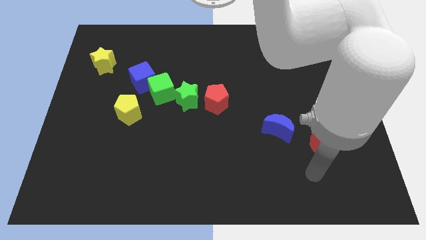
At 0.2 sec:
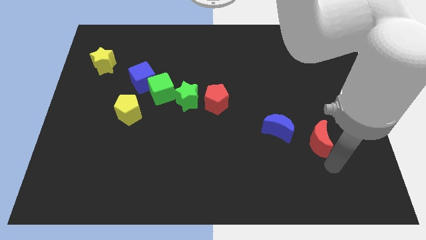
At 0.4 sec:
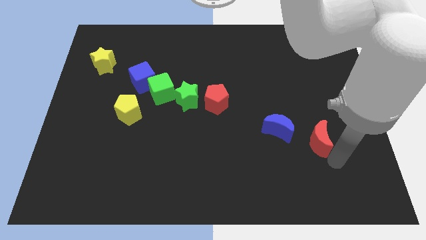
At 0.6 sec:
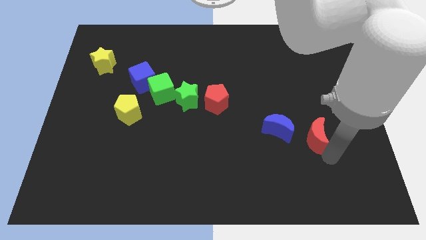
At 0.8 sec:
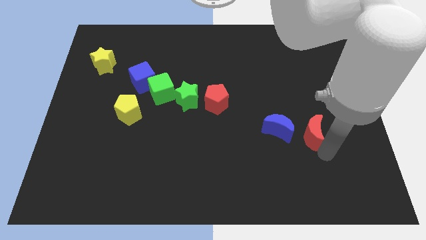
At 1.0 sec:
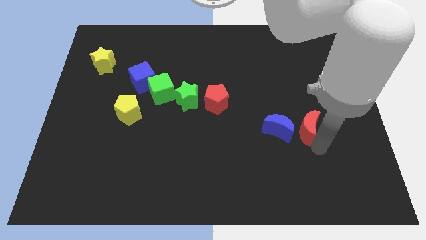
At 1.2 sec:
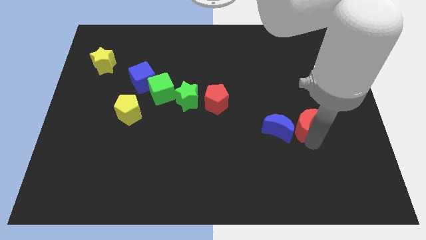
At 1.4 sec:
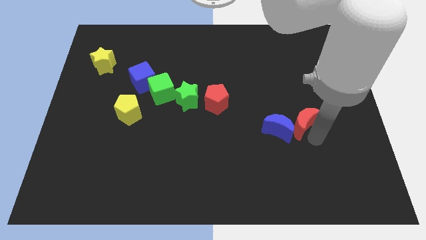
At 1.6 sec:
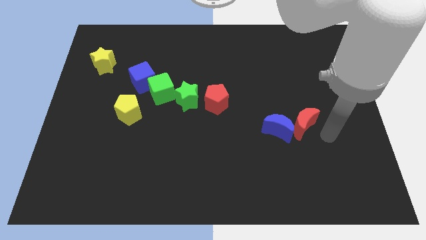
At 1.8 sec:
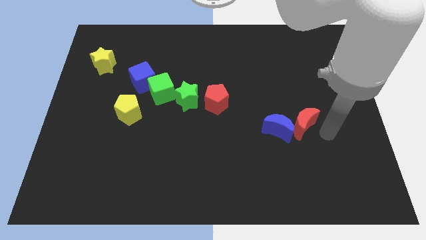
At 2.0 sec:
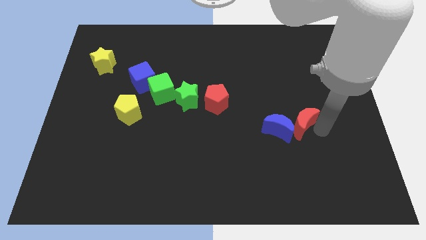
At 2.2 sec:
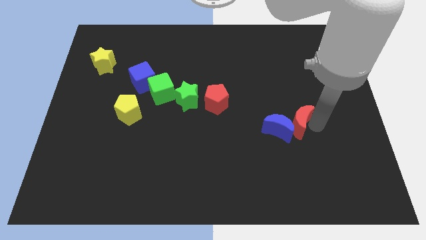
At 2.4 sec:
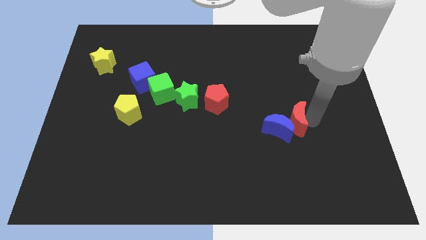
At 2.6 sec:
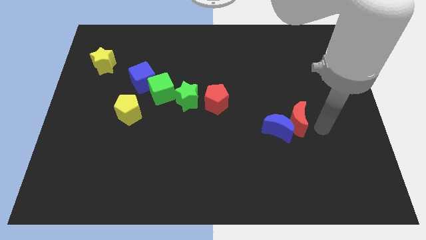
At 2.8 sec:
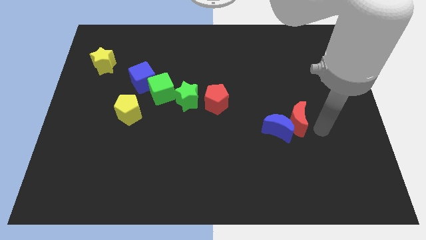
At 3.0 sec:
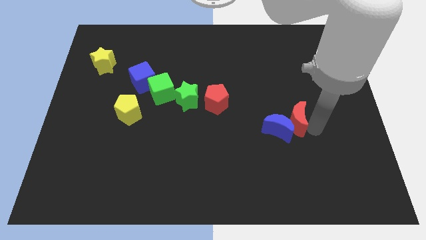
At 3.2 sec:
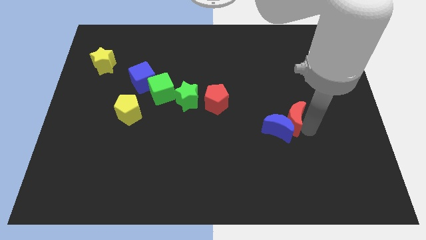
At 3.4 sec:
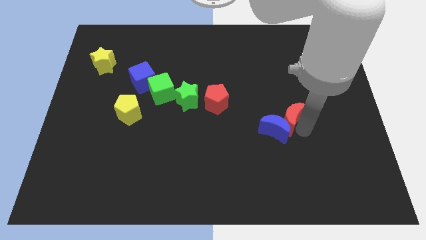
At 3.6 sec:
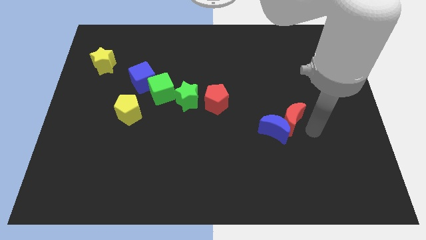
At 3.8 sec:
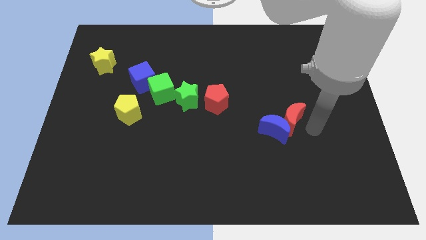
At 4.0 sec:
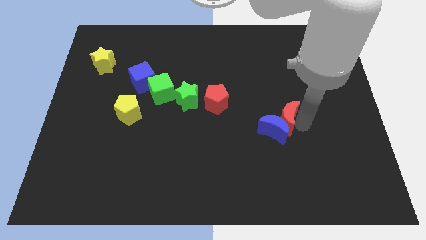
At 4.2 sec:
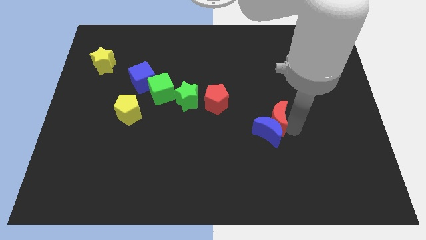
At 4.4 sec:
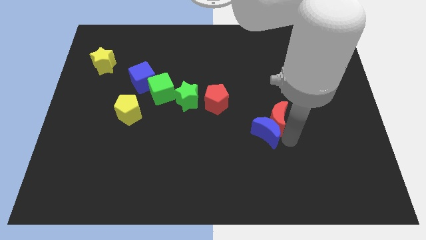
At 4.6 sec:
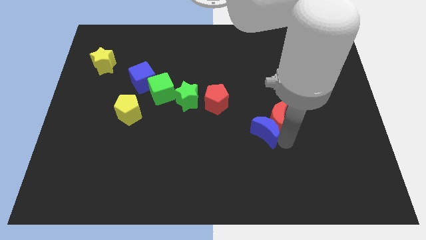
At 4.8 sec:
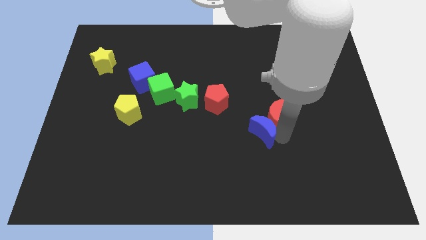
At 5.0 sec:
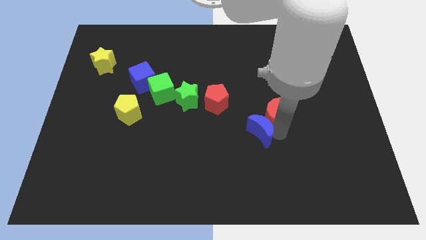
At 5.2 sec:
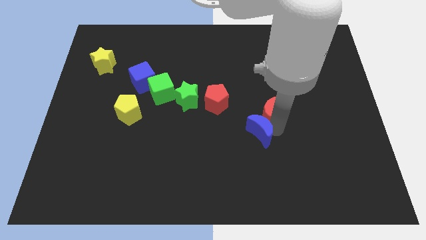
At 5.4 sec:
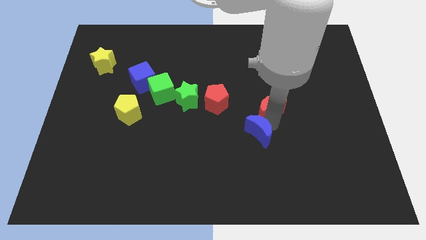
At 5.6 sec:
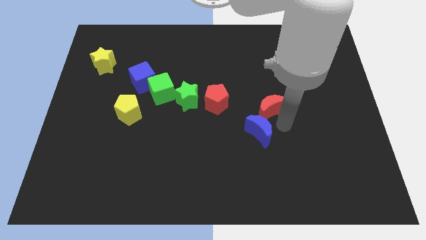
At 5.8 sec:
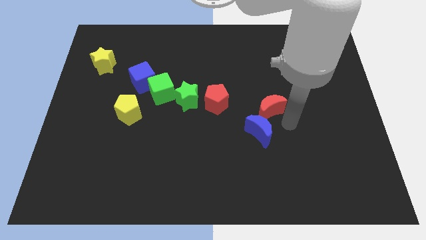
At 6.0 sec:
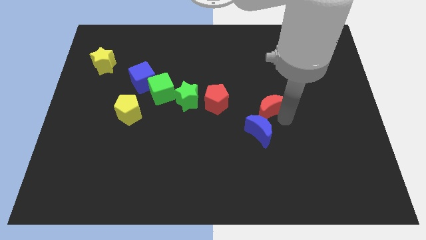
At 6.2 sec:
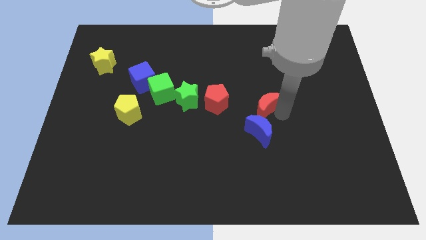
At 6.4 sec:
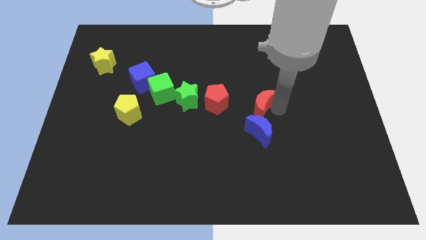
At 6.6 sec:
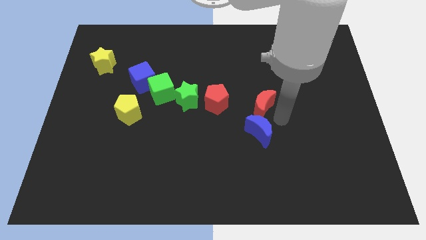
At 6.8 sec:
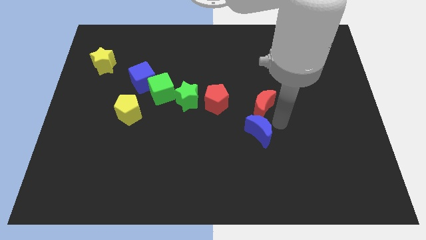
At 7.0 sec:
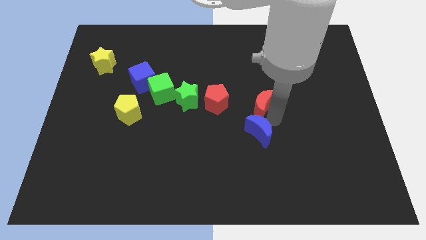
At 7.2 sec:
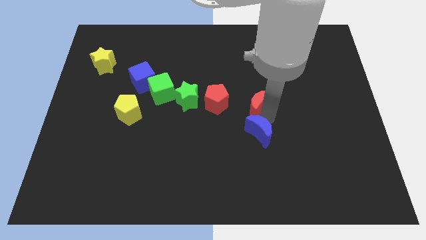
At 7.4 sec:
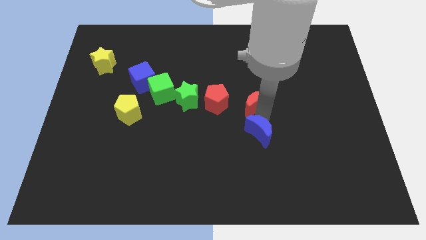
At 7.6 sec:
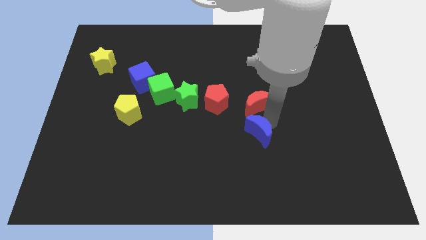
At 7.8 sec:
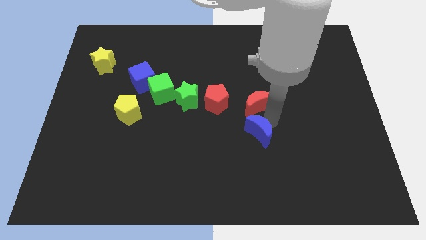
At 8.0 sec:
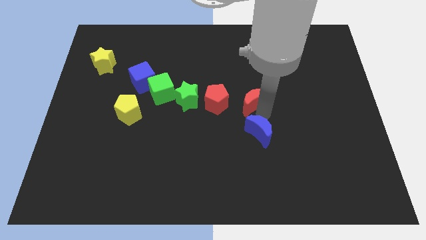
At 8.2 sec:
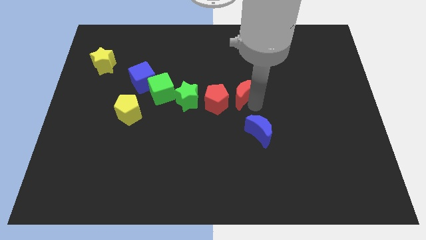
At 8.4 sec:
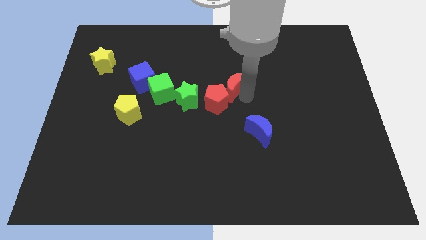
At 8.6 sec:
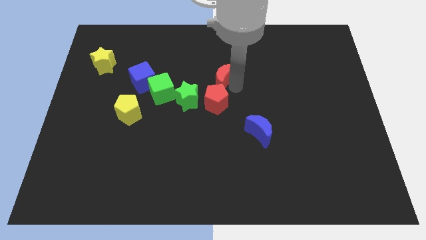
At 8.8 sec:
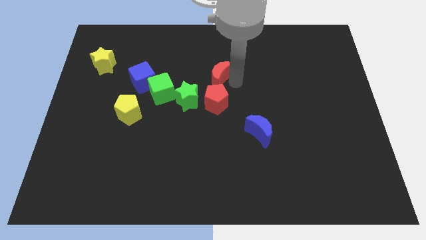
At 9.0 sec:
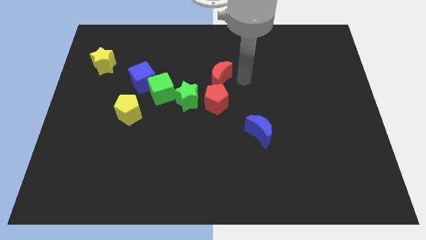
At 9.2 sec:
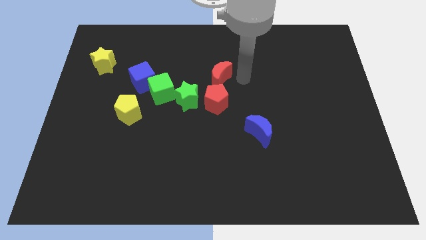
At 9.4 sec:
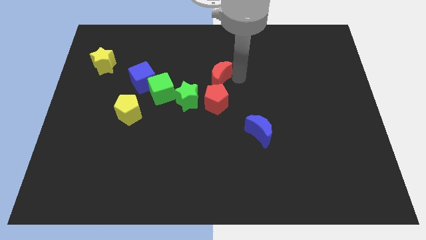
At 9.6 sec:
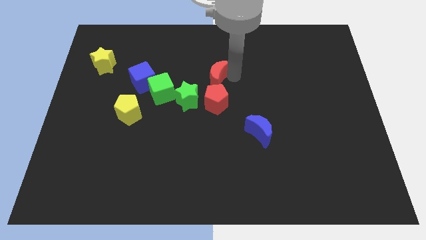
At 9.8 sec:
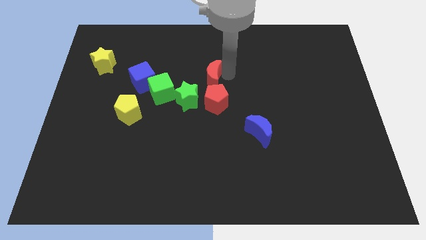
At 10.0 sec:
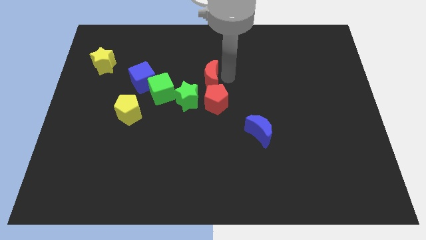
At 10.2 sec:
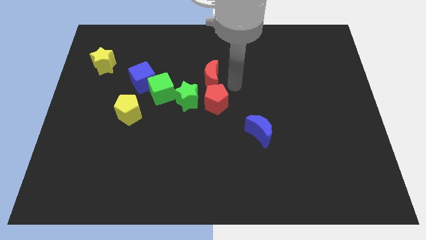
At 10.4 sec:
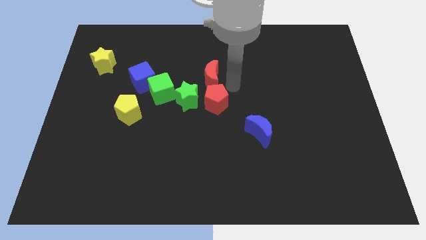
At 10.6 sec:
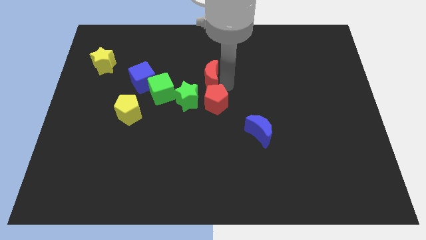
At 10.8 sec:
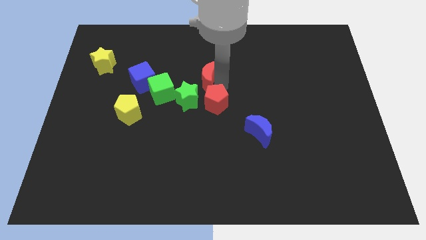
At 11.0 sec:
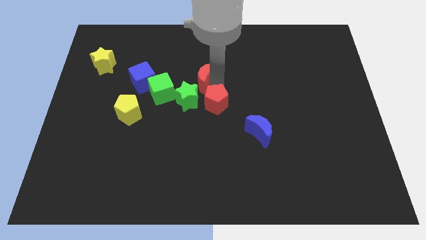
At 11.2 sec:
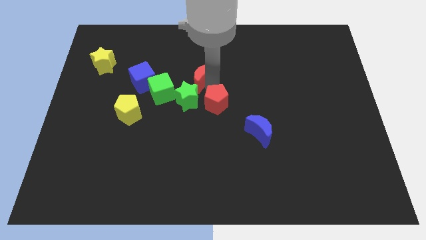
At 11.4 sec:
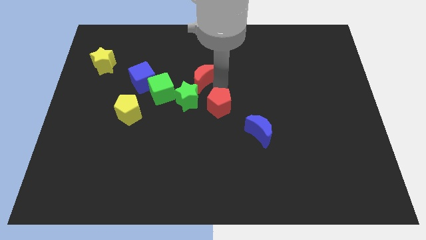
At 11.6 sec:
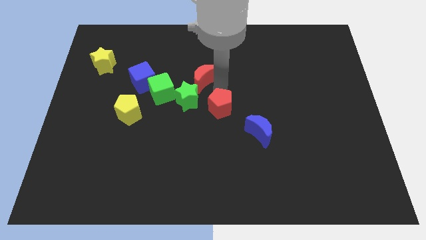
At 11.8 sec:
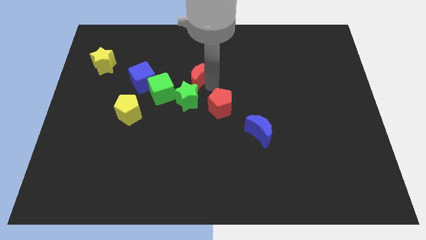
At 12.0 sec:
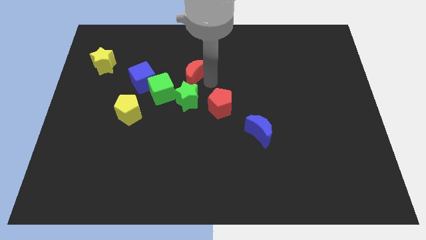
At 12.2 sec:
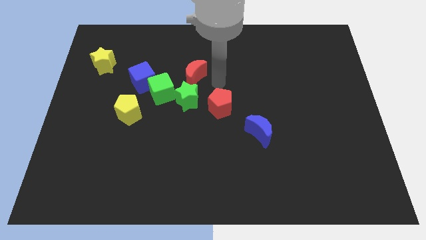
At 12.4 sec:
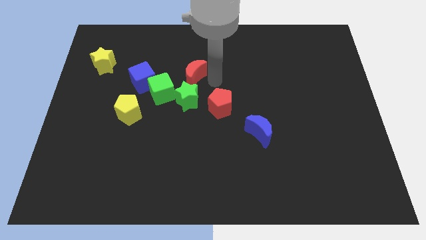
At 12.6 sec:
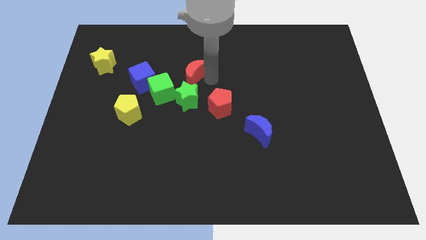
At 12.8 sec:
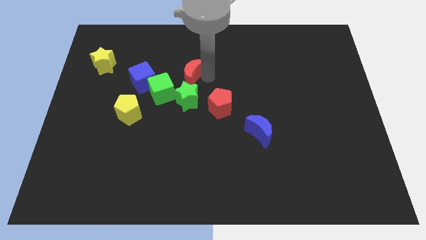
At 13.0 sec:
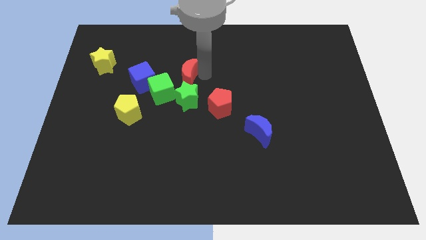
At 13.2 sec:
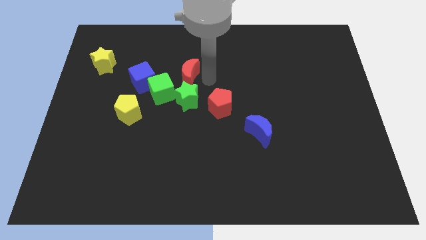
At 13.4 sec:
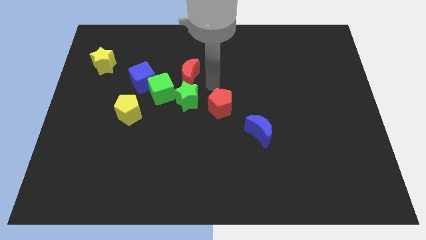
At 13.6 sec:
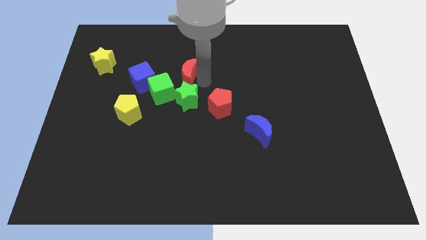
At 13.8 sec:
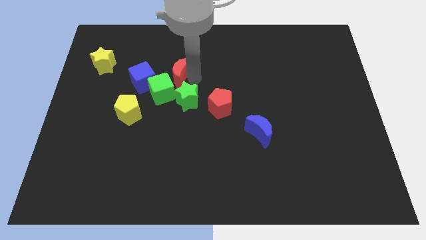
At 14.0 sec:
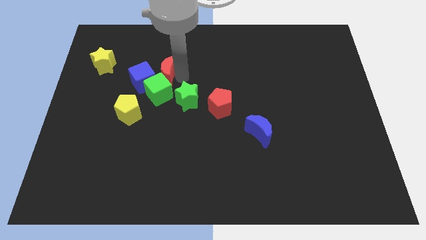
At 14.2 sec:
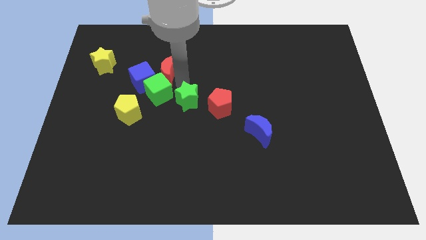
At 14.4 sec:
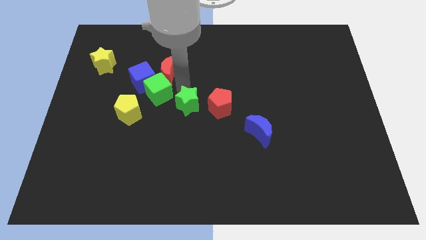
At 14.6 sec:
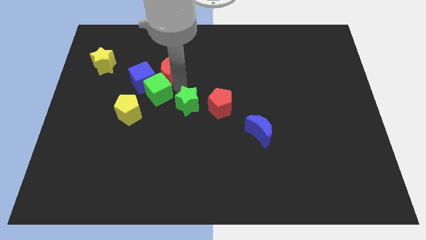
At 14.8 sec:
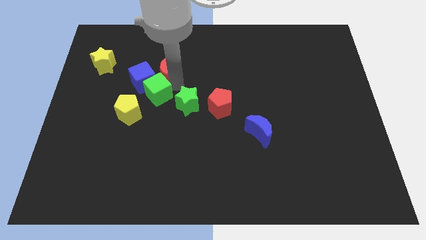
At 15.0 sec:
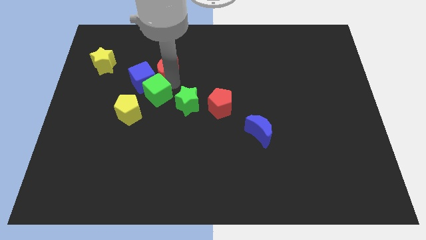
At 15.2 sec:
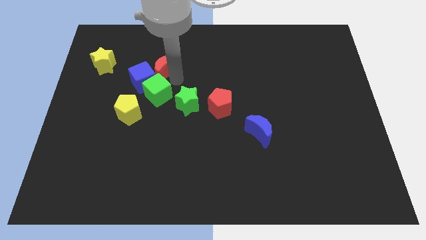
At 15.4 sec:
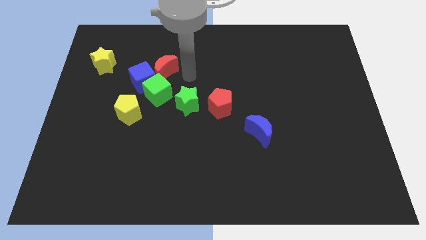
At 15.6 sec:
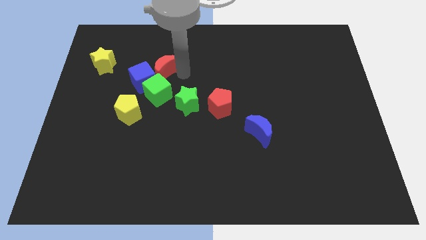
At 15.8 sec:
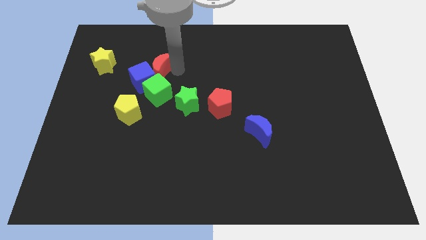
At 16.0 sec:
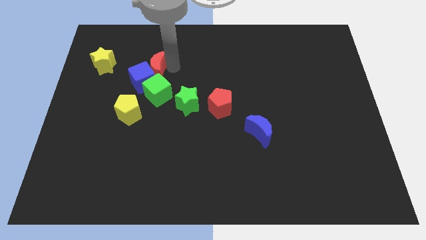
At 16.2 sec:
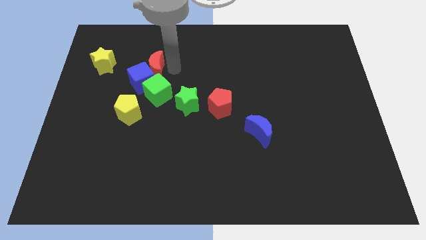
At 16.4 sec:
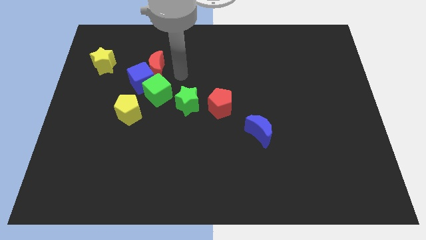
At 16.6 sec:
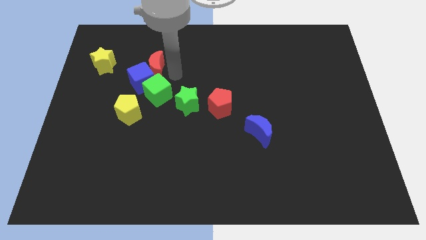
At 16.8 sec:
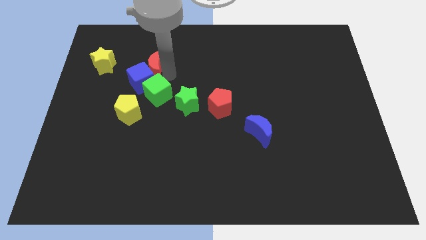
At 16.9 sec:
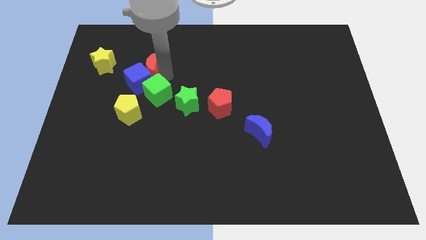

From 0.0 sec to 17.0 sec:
slide the red moon above the yellow pentagon
